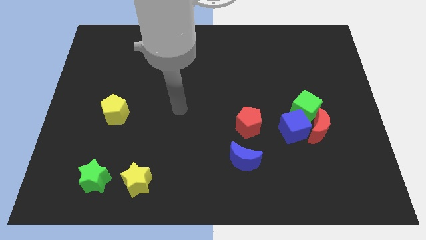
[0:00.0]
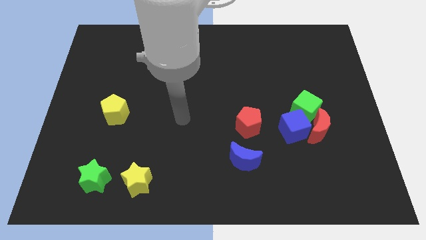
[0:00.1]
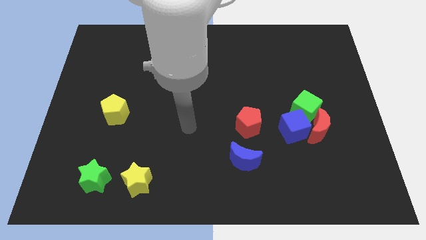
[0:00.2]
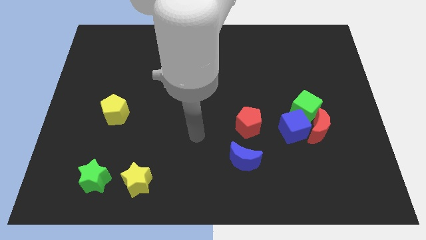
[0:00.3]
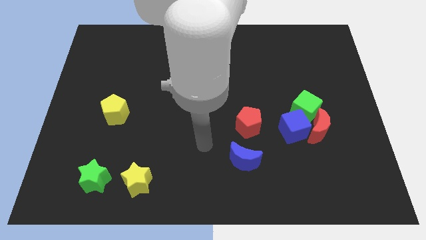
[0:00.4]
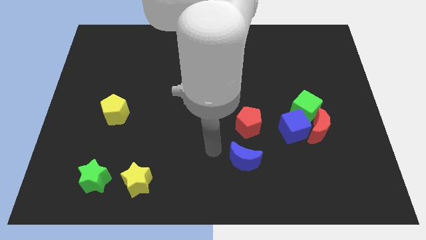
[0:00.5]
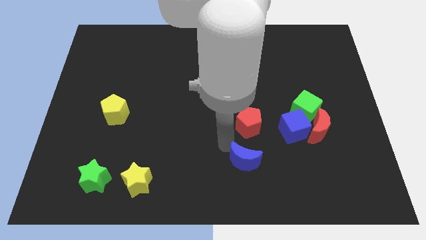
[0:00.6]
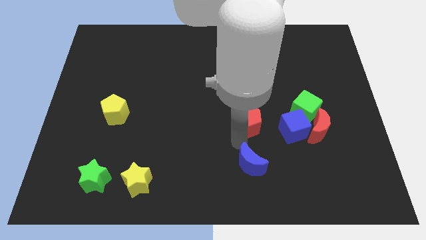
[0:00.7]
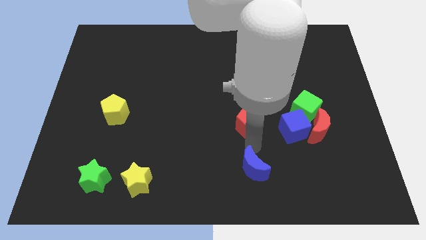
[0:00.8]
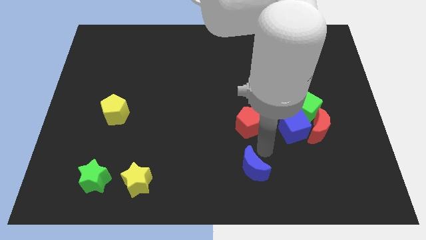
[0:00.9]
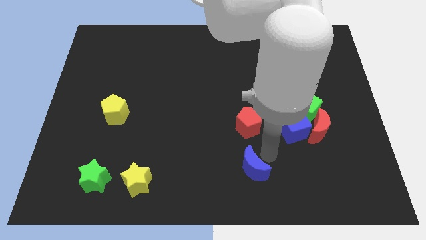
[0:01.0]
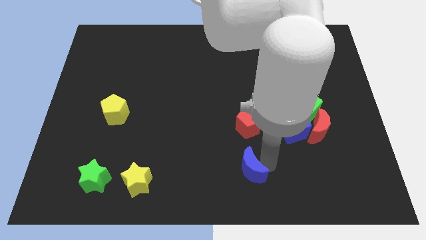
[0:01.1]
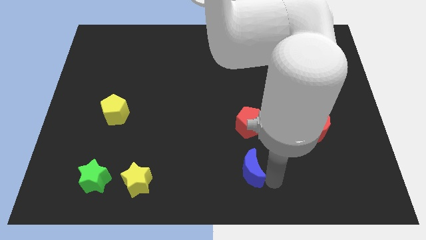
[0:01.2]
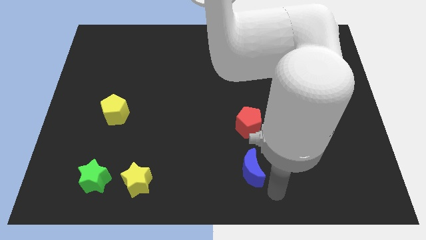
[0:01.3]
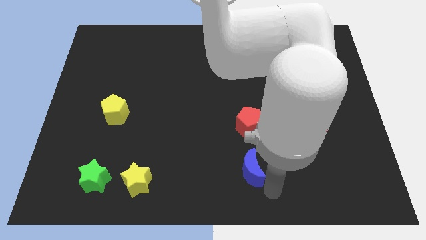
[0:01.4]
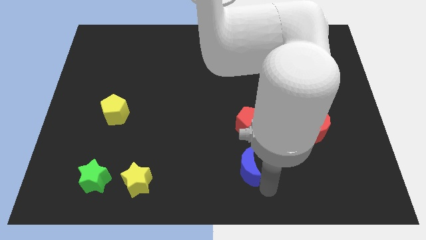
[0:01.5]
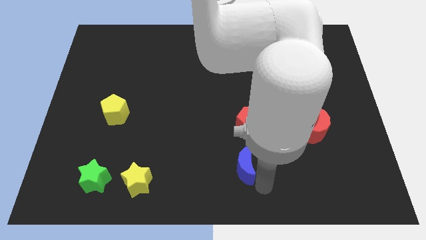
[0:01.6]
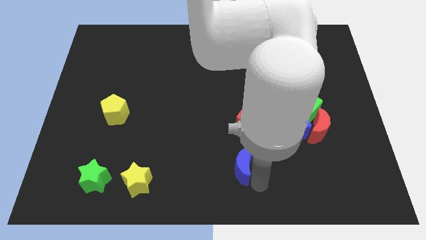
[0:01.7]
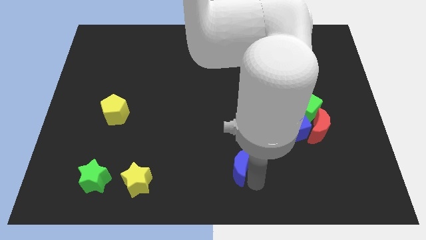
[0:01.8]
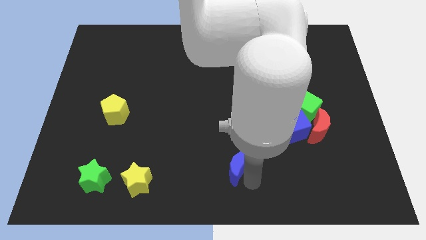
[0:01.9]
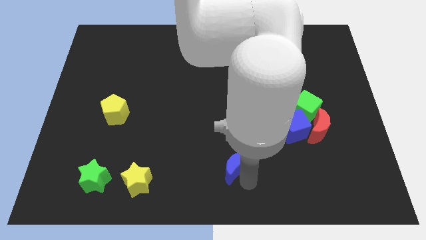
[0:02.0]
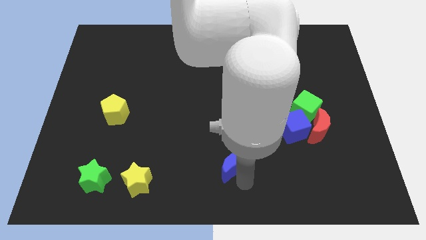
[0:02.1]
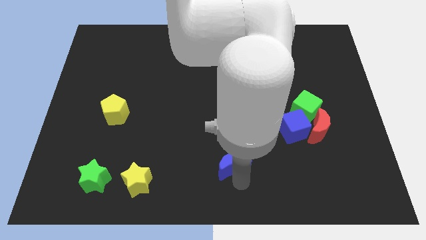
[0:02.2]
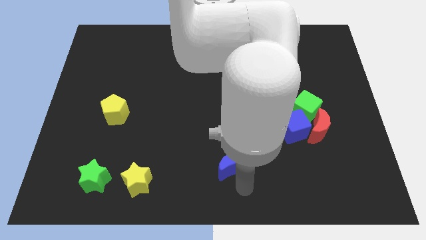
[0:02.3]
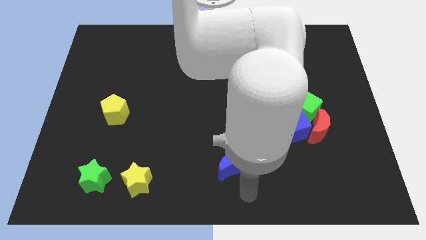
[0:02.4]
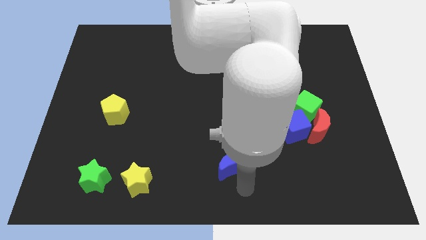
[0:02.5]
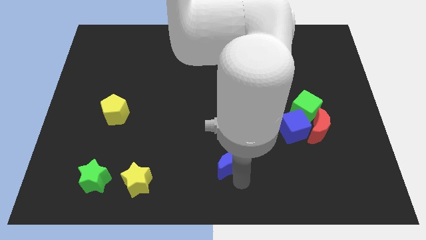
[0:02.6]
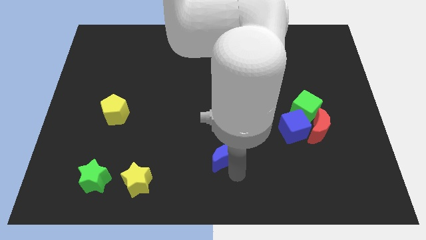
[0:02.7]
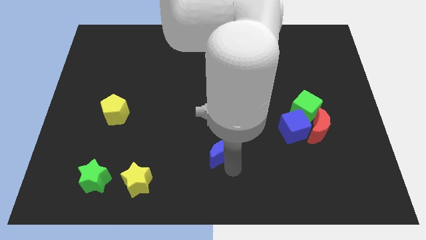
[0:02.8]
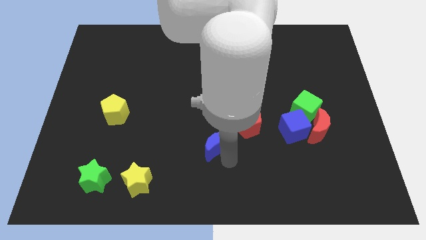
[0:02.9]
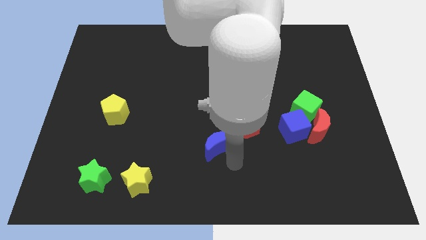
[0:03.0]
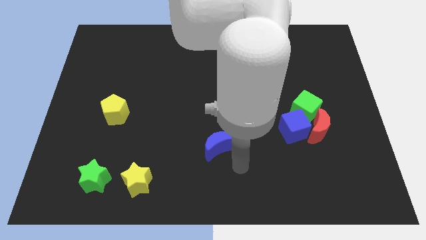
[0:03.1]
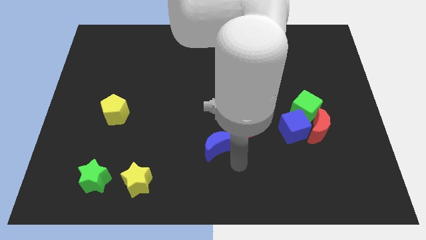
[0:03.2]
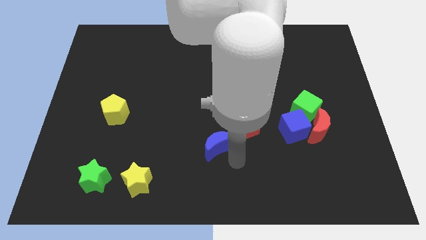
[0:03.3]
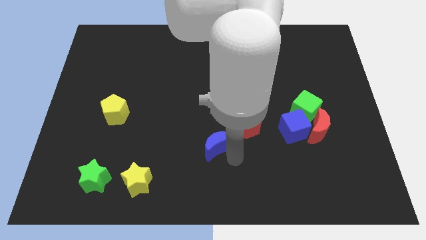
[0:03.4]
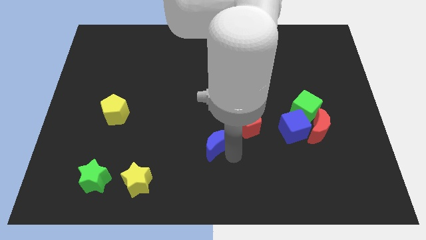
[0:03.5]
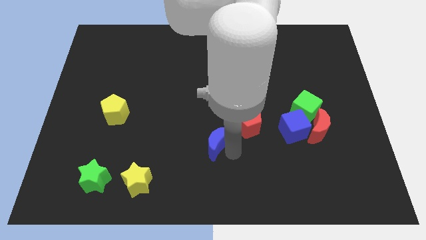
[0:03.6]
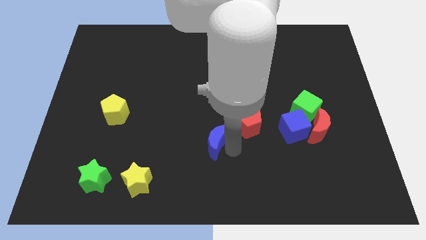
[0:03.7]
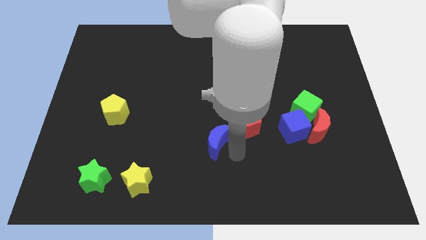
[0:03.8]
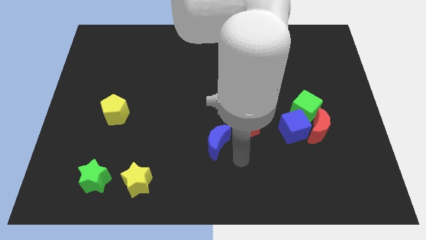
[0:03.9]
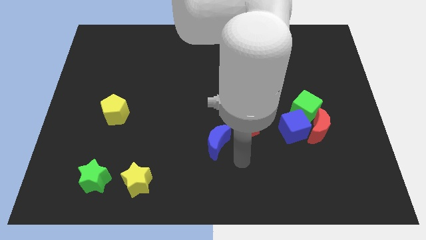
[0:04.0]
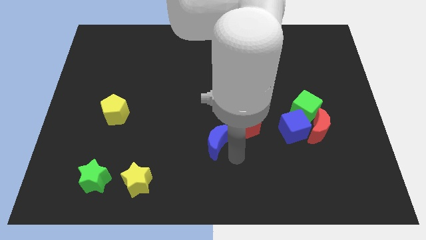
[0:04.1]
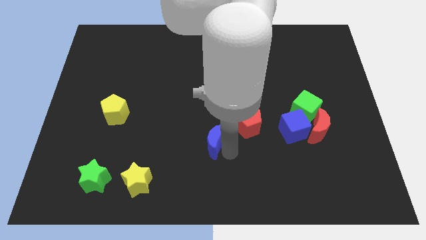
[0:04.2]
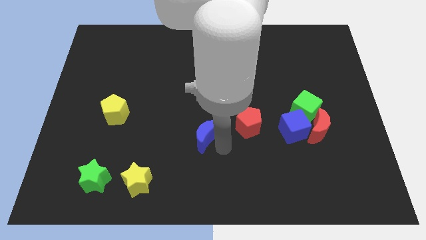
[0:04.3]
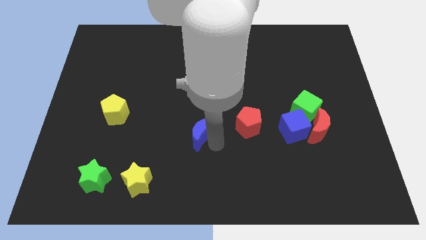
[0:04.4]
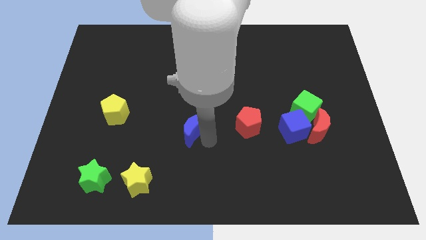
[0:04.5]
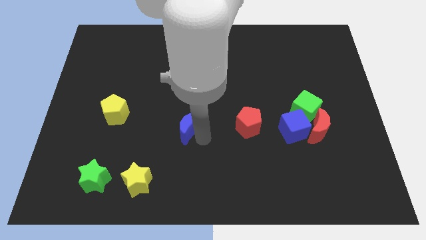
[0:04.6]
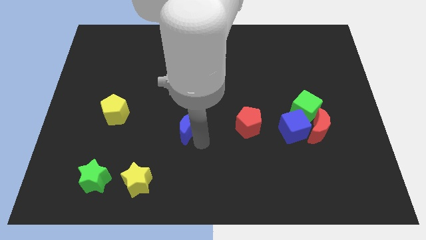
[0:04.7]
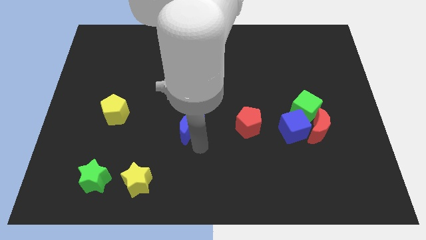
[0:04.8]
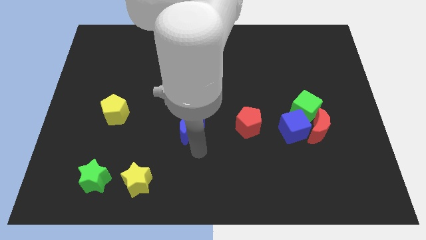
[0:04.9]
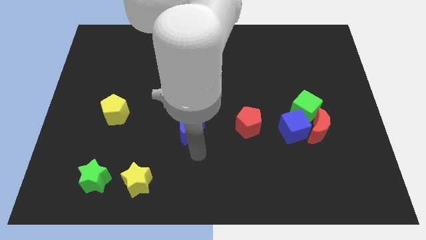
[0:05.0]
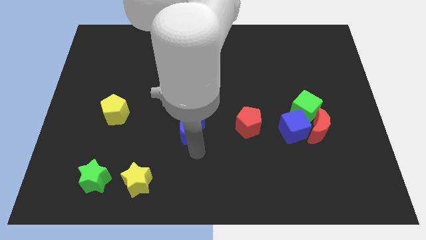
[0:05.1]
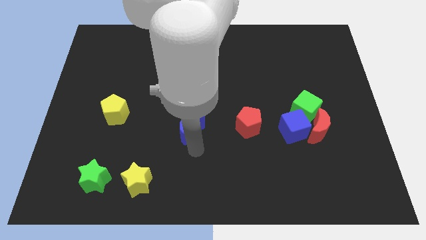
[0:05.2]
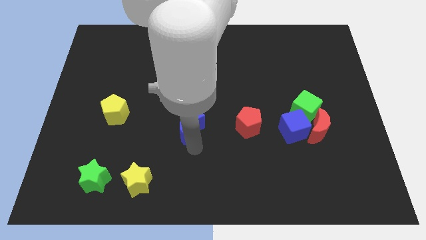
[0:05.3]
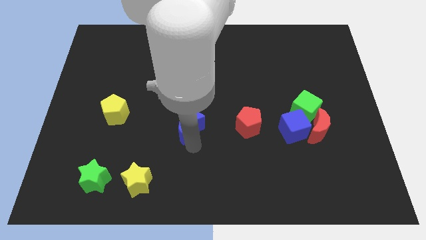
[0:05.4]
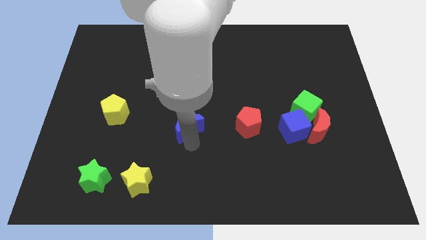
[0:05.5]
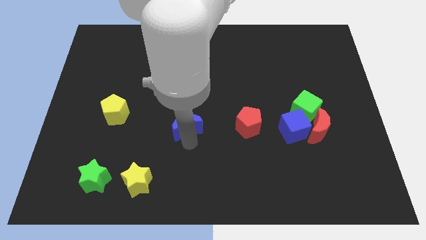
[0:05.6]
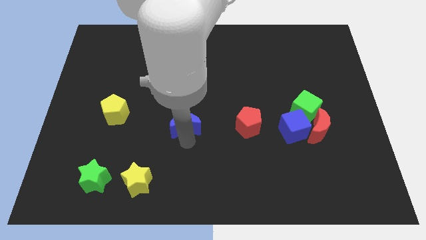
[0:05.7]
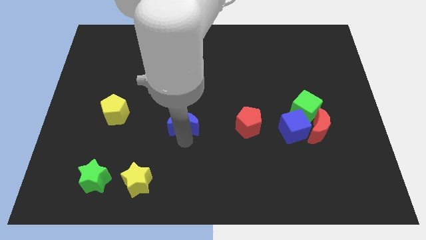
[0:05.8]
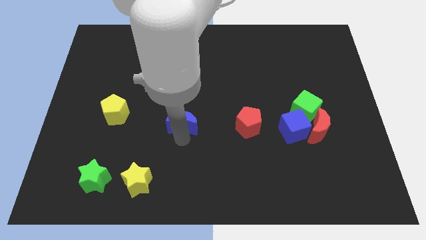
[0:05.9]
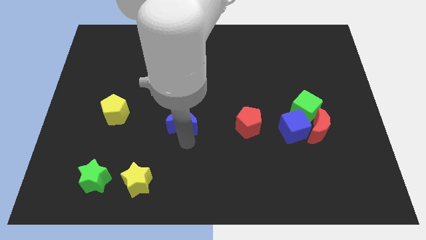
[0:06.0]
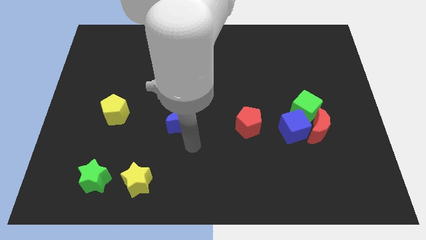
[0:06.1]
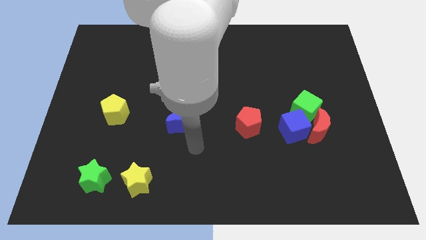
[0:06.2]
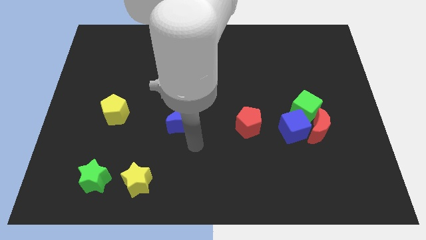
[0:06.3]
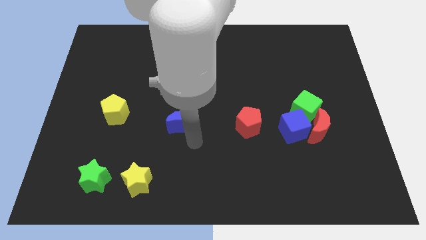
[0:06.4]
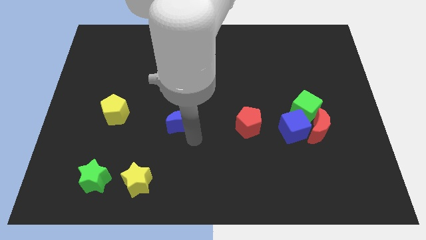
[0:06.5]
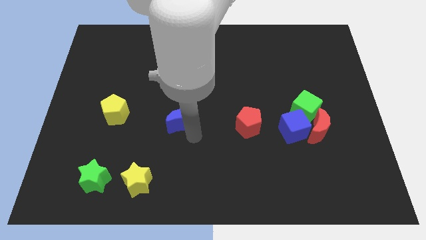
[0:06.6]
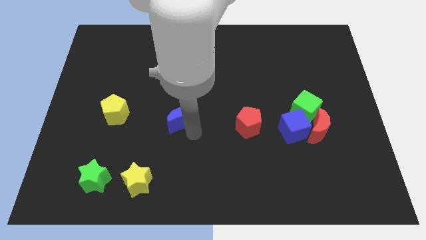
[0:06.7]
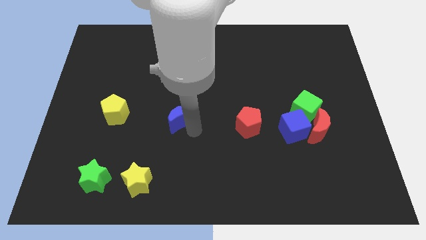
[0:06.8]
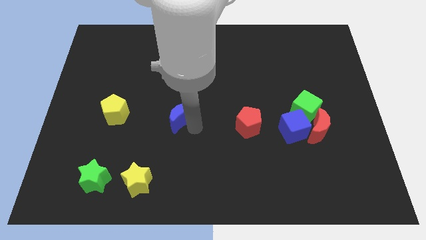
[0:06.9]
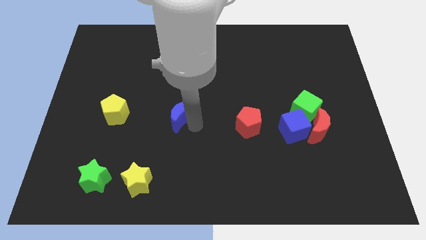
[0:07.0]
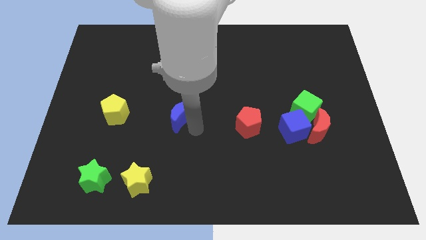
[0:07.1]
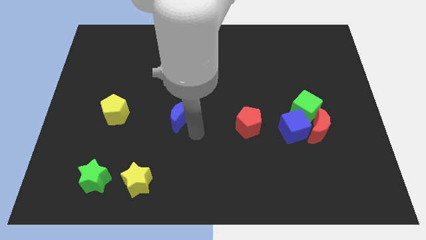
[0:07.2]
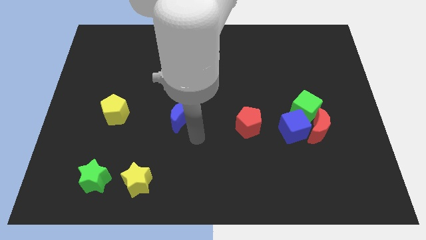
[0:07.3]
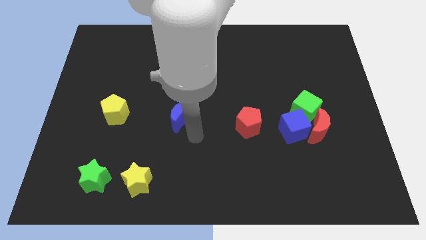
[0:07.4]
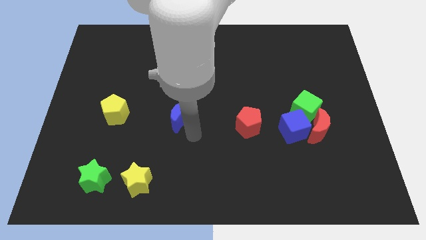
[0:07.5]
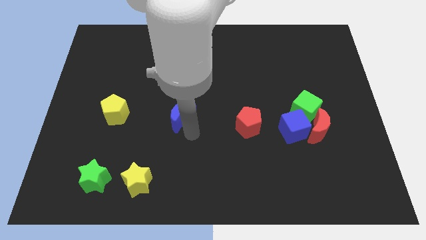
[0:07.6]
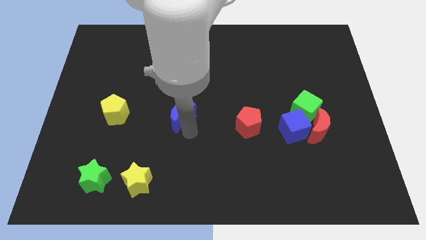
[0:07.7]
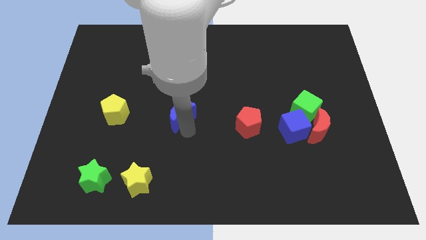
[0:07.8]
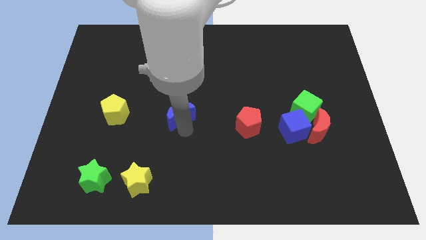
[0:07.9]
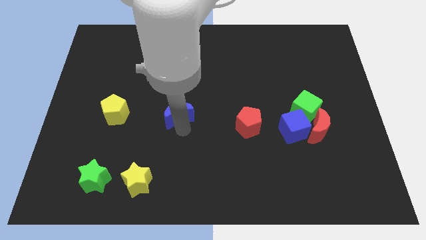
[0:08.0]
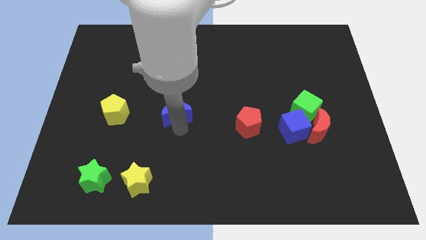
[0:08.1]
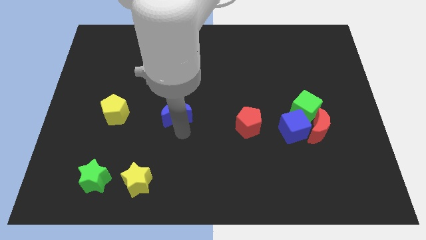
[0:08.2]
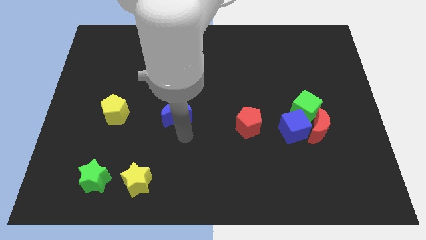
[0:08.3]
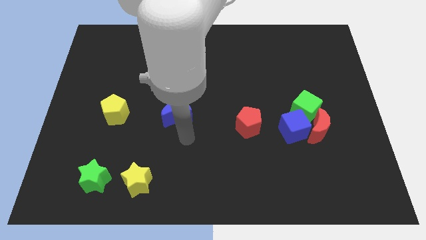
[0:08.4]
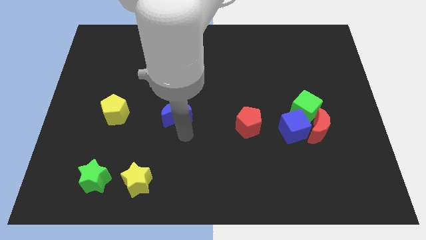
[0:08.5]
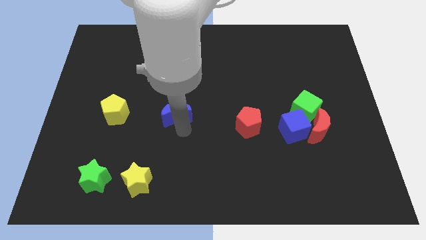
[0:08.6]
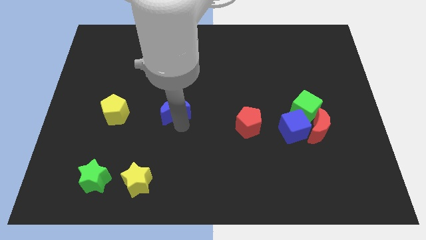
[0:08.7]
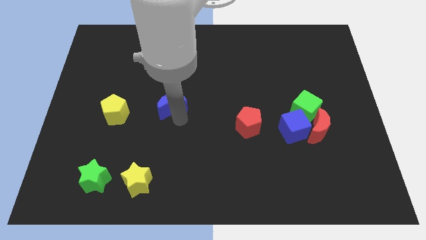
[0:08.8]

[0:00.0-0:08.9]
move the blue moon upwards and left diagonally
